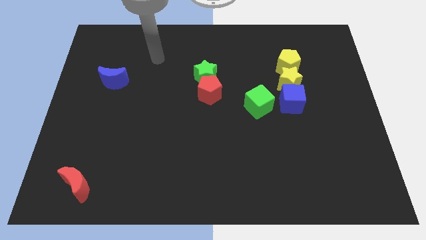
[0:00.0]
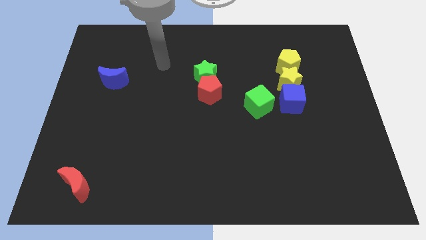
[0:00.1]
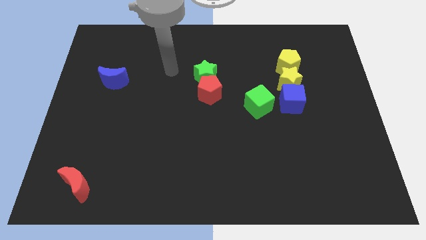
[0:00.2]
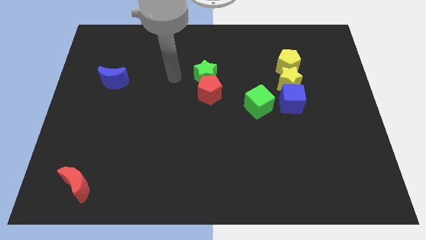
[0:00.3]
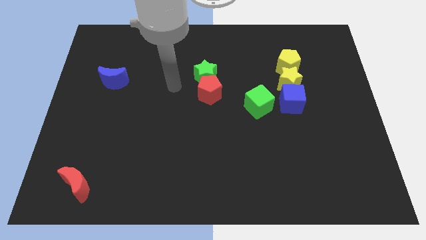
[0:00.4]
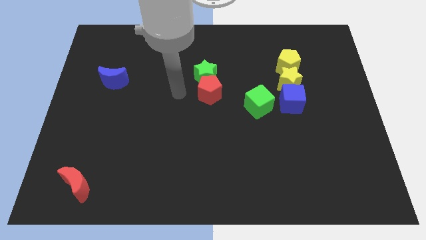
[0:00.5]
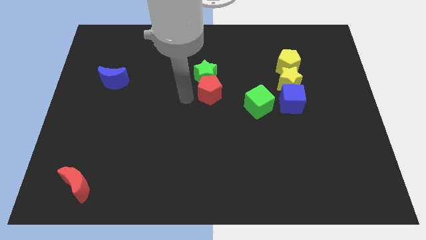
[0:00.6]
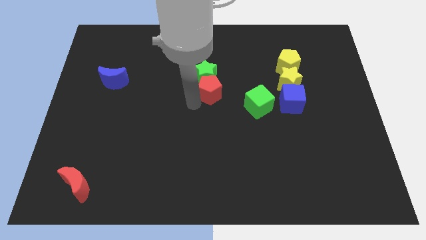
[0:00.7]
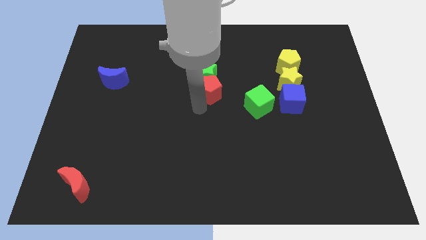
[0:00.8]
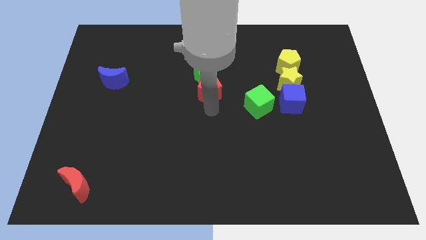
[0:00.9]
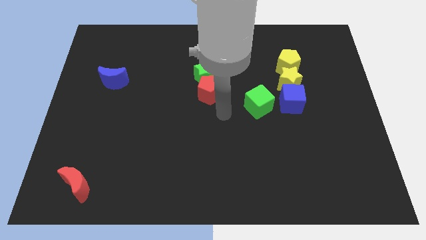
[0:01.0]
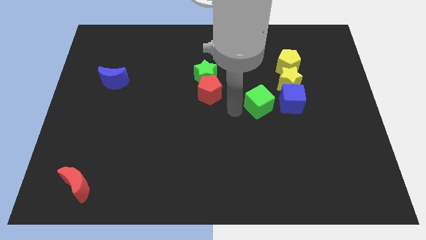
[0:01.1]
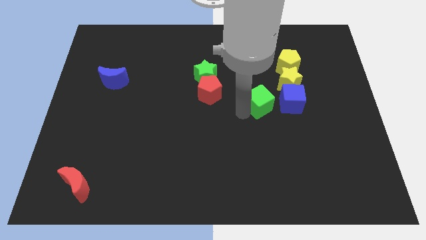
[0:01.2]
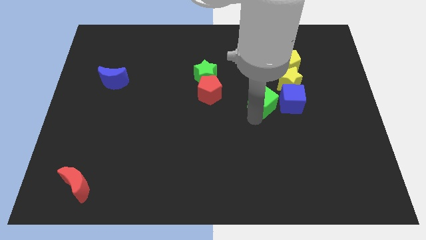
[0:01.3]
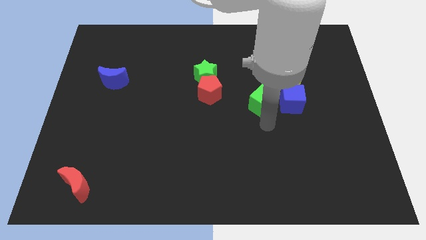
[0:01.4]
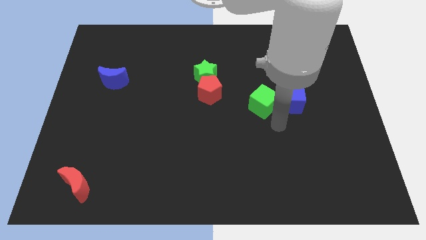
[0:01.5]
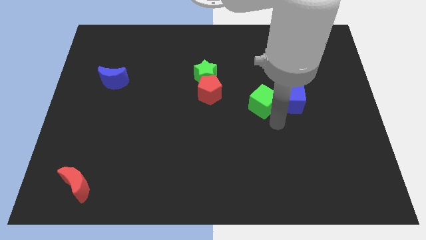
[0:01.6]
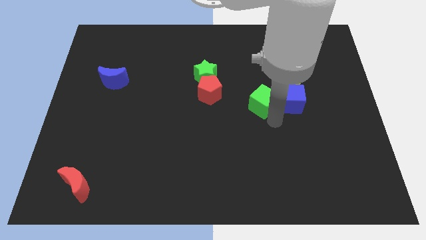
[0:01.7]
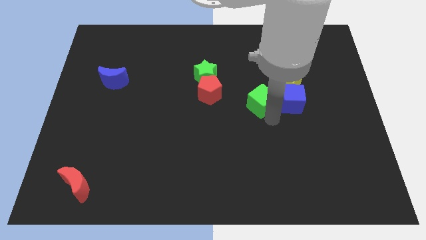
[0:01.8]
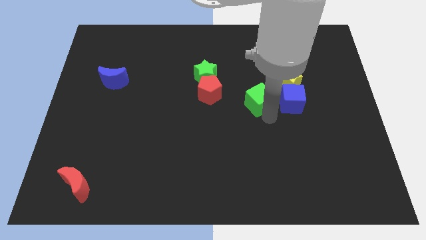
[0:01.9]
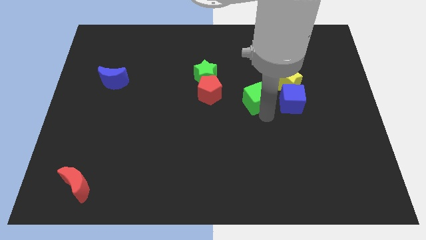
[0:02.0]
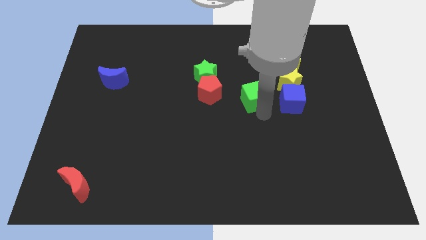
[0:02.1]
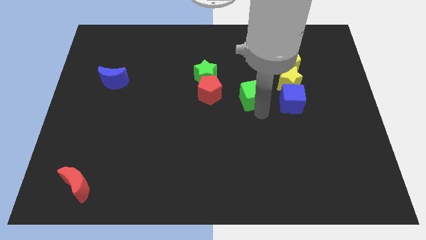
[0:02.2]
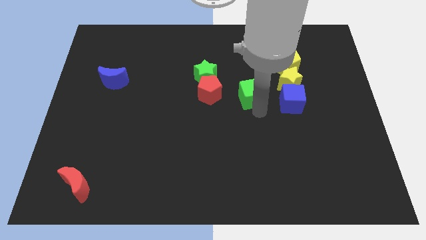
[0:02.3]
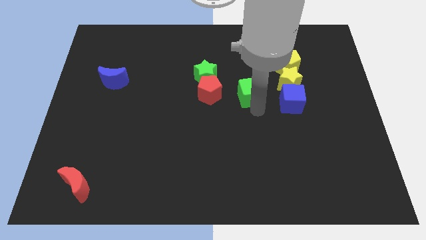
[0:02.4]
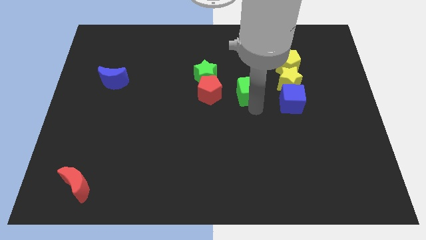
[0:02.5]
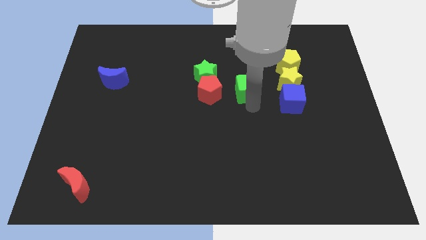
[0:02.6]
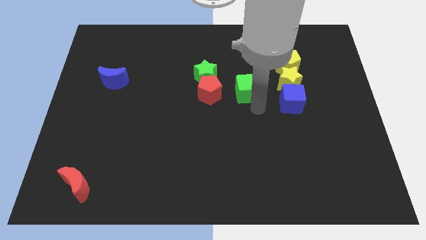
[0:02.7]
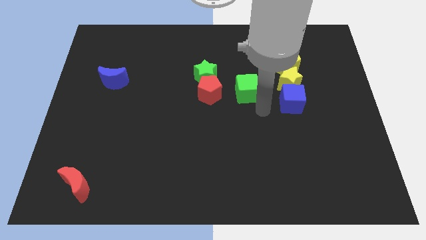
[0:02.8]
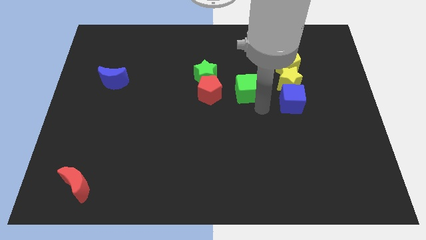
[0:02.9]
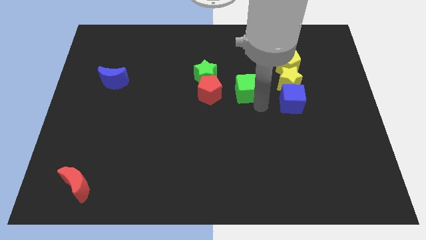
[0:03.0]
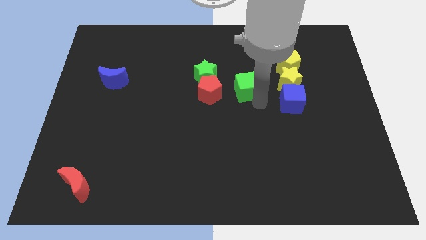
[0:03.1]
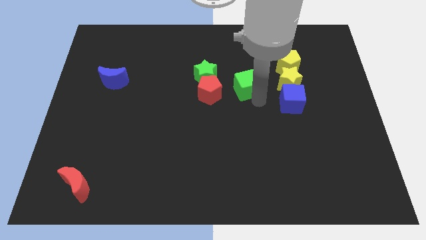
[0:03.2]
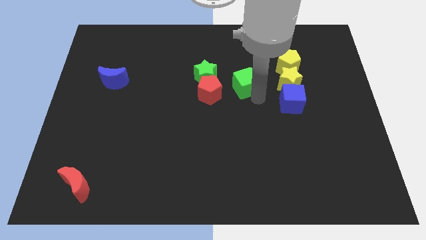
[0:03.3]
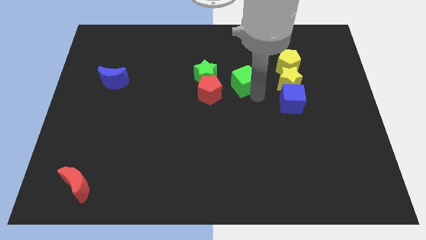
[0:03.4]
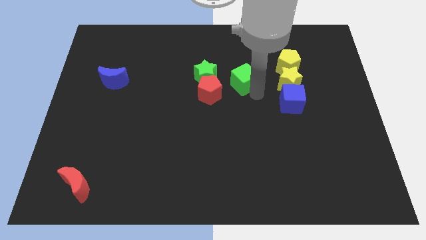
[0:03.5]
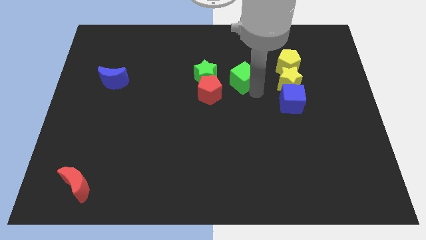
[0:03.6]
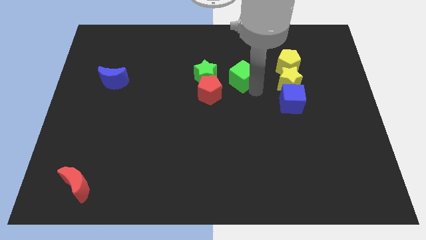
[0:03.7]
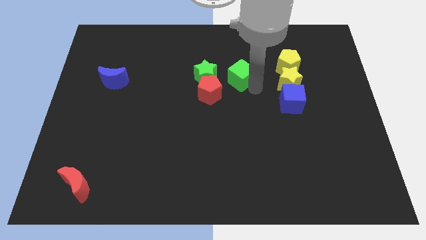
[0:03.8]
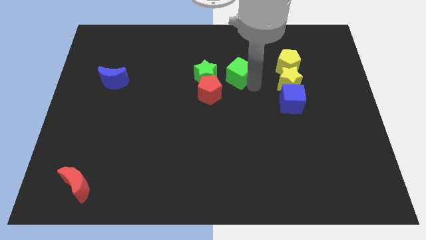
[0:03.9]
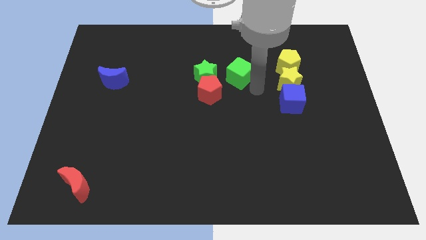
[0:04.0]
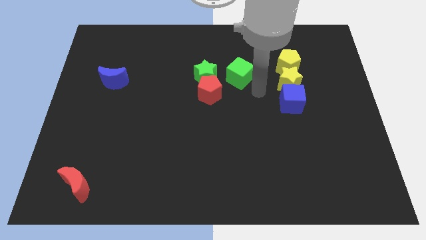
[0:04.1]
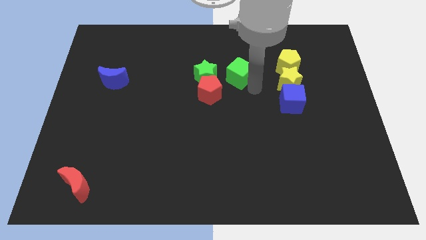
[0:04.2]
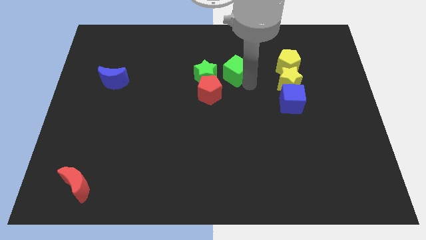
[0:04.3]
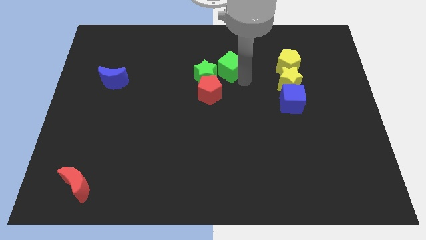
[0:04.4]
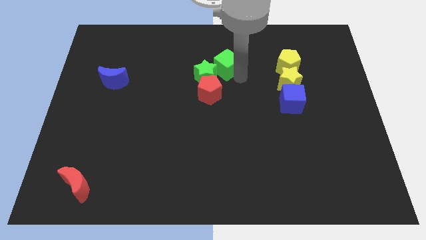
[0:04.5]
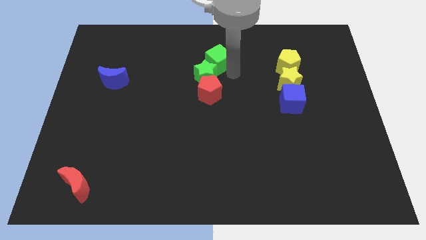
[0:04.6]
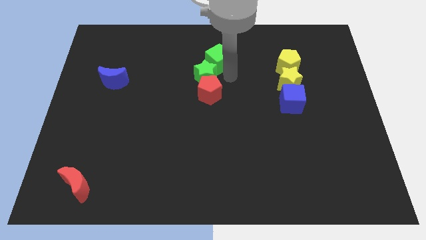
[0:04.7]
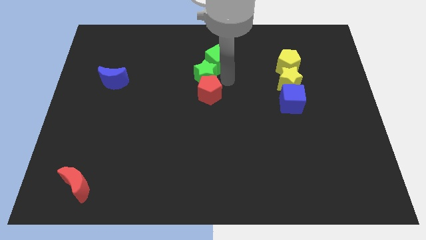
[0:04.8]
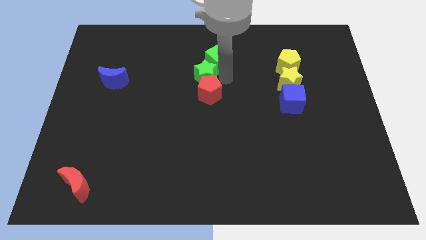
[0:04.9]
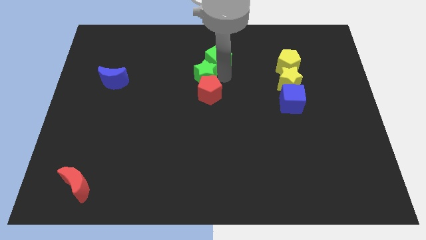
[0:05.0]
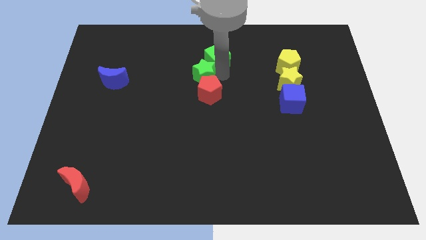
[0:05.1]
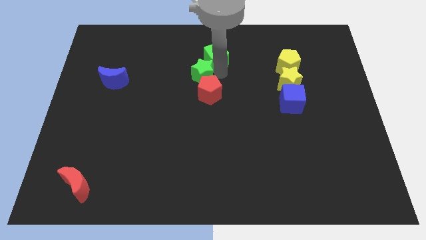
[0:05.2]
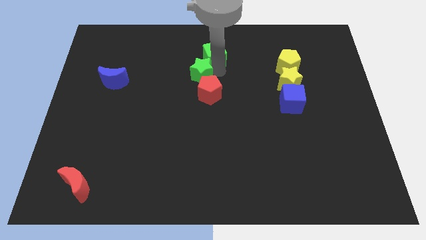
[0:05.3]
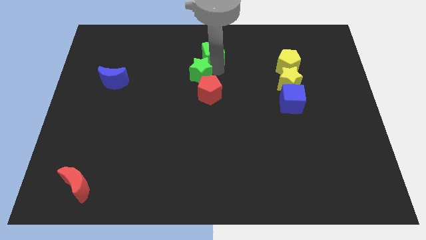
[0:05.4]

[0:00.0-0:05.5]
push the green cube to the top side
